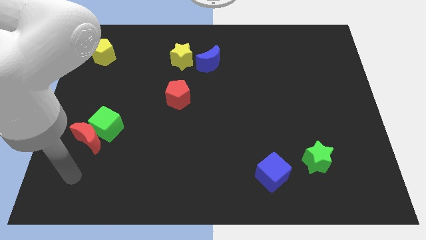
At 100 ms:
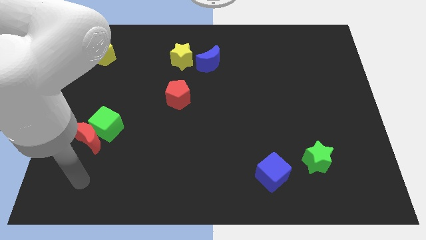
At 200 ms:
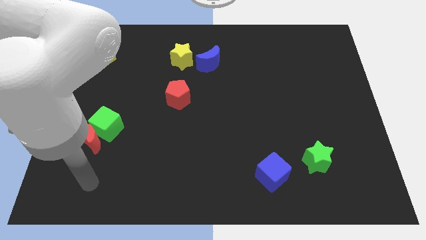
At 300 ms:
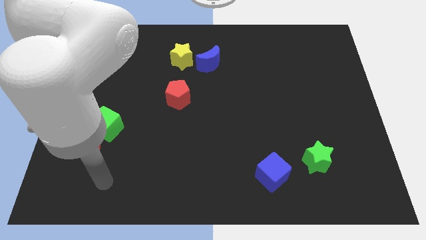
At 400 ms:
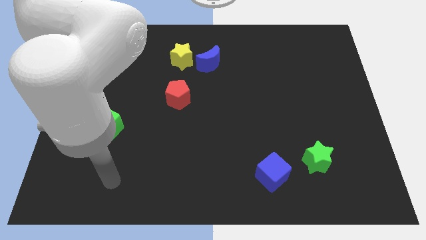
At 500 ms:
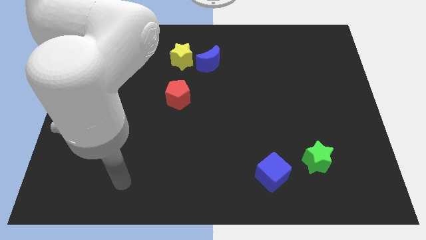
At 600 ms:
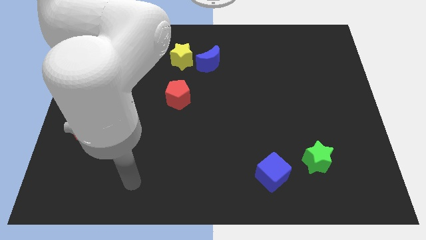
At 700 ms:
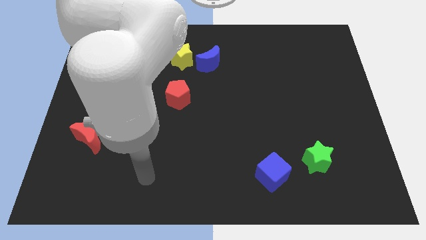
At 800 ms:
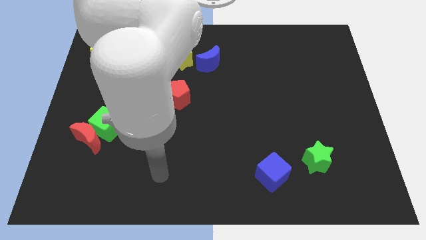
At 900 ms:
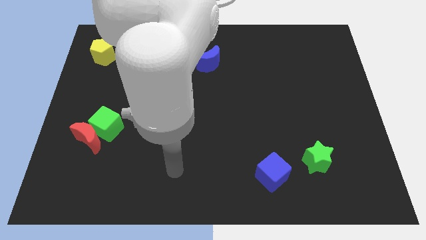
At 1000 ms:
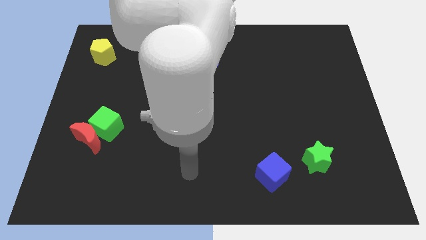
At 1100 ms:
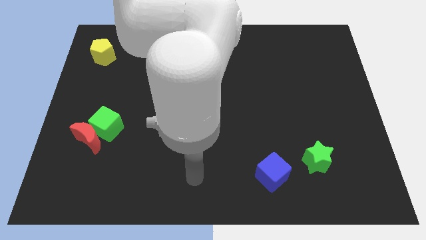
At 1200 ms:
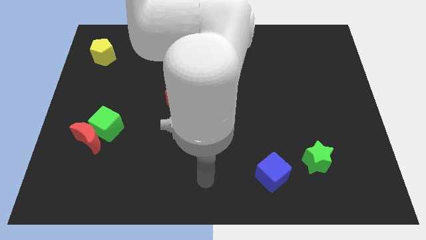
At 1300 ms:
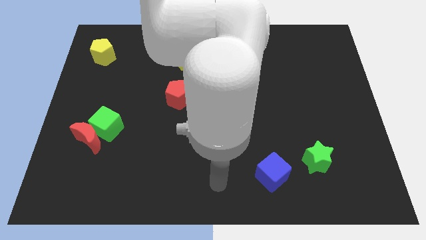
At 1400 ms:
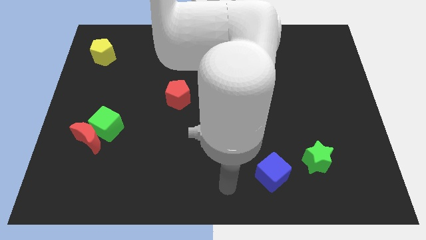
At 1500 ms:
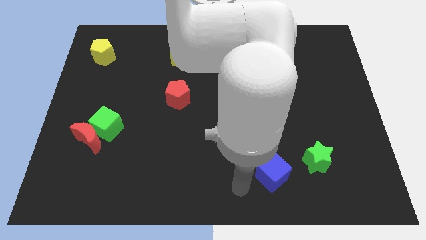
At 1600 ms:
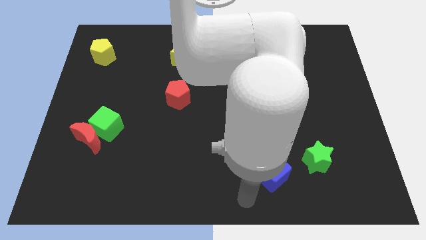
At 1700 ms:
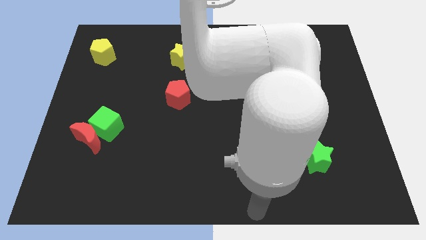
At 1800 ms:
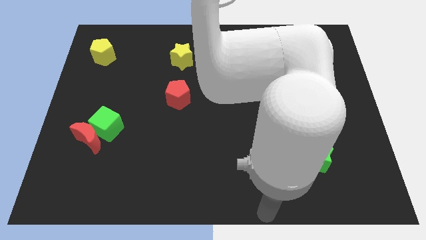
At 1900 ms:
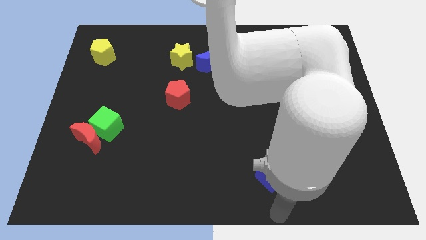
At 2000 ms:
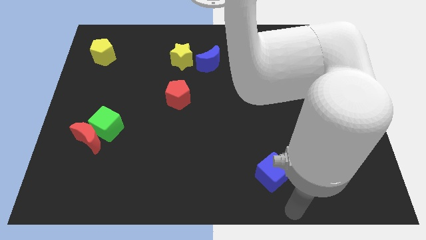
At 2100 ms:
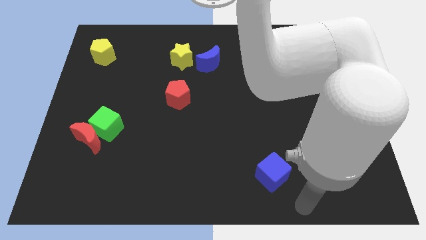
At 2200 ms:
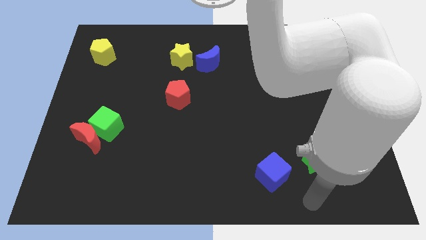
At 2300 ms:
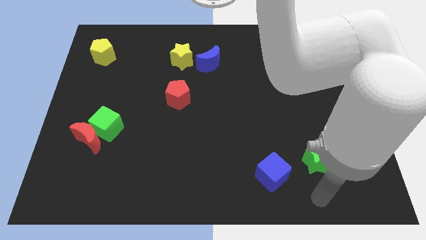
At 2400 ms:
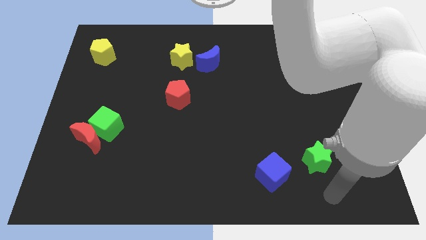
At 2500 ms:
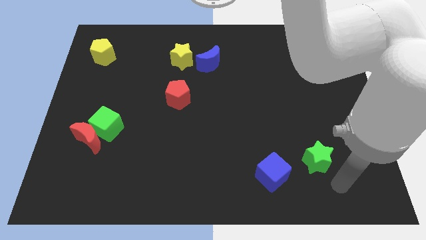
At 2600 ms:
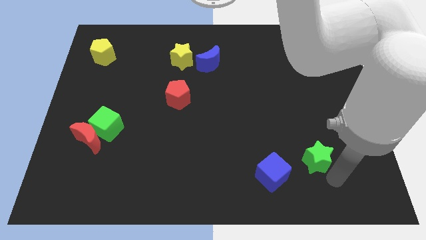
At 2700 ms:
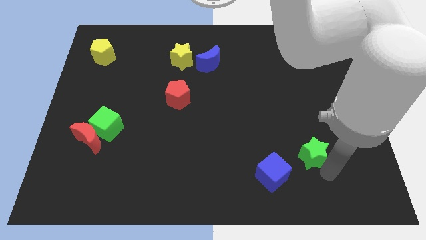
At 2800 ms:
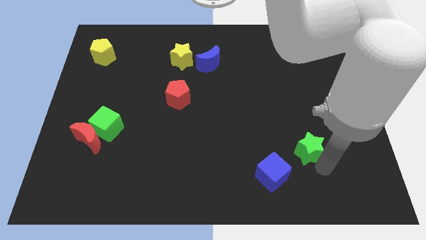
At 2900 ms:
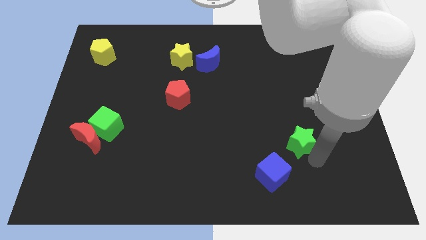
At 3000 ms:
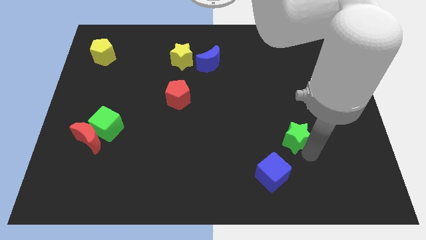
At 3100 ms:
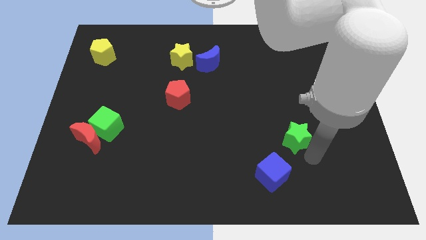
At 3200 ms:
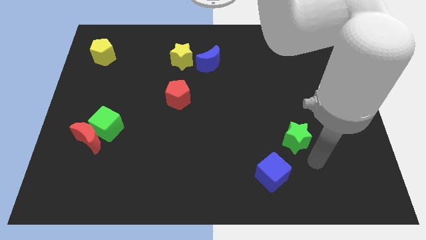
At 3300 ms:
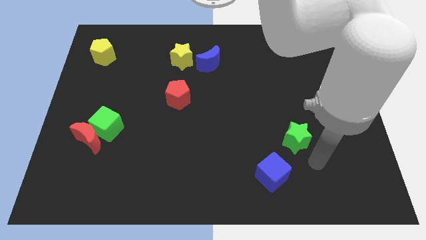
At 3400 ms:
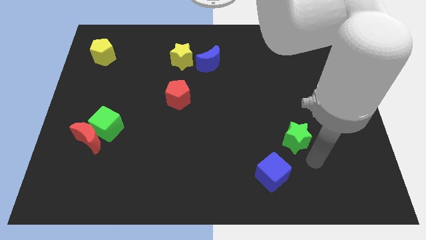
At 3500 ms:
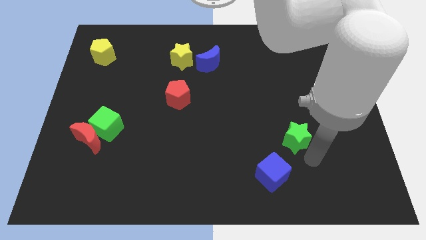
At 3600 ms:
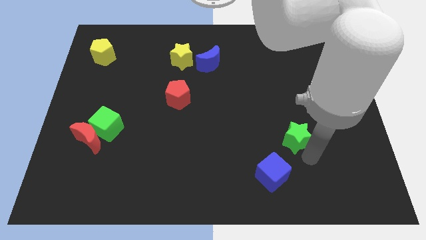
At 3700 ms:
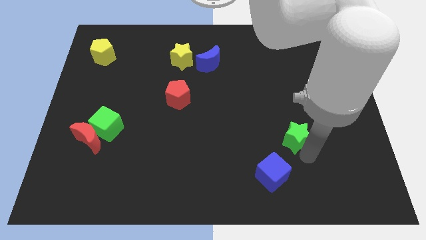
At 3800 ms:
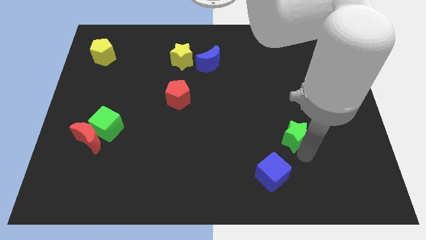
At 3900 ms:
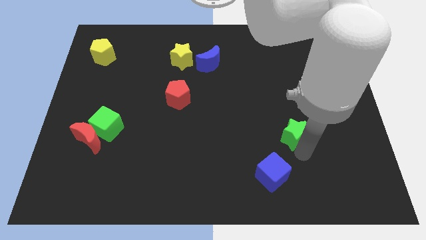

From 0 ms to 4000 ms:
slide the green star somewhat upwards and then to the left

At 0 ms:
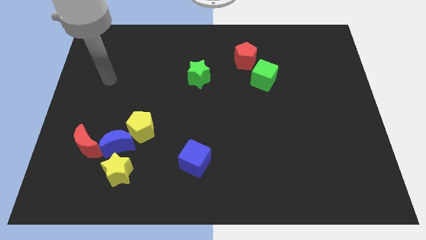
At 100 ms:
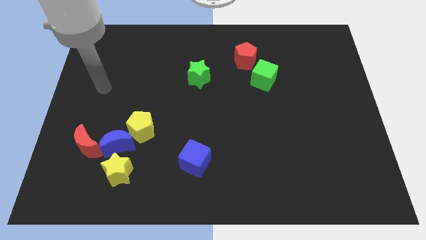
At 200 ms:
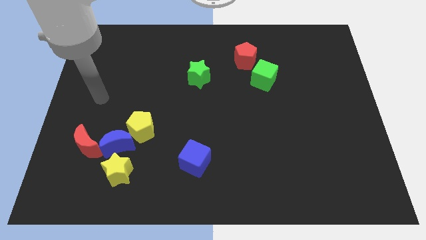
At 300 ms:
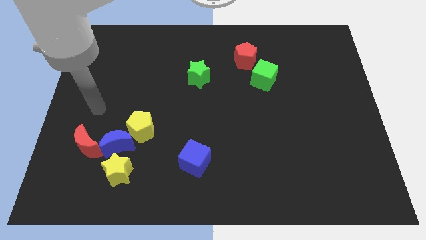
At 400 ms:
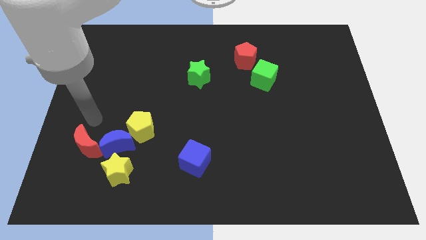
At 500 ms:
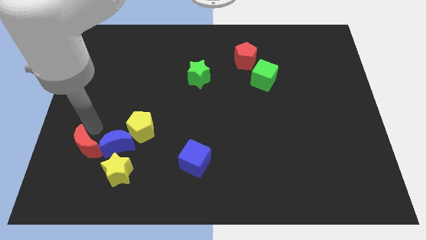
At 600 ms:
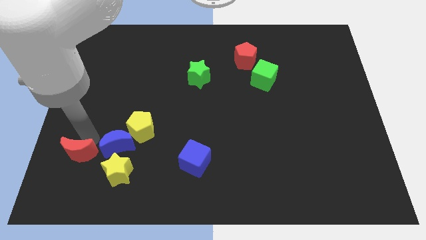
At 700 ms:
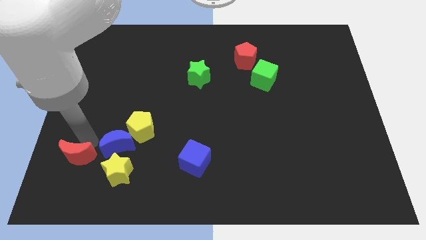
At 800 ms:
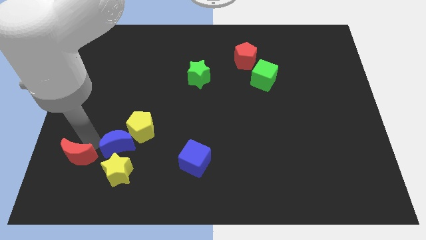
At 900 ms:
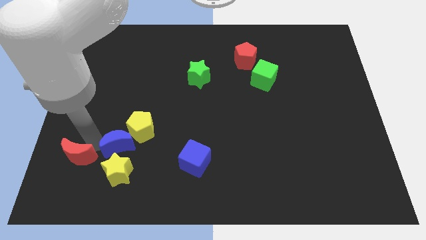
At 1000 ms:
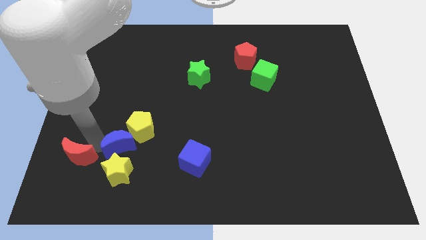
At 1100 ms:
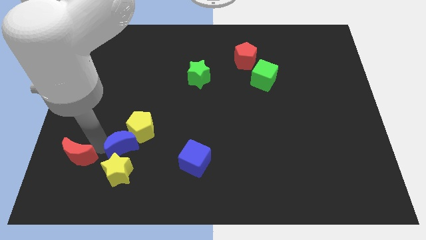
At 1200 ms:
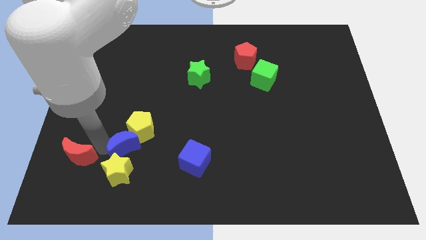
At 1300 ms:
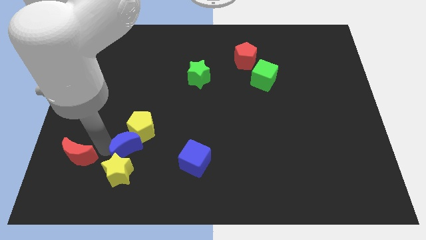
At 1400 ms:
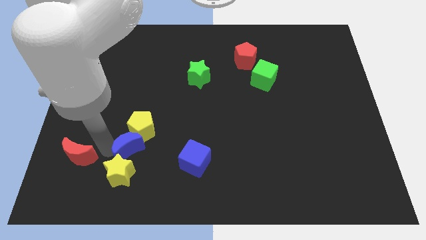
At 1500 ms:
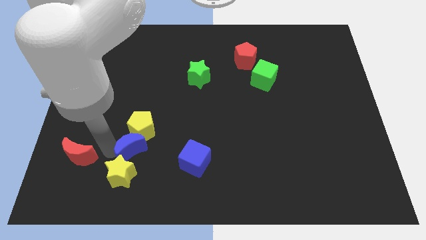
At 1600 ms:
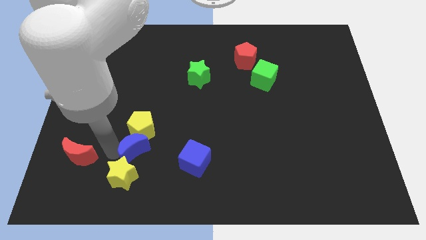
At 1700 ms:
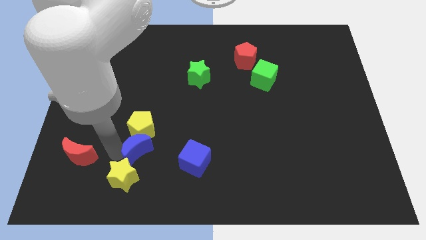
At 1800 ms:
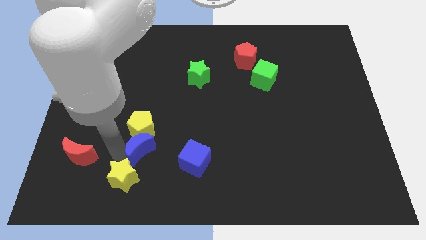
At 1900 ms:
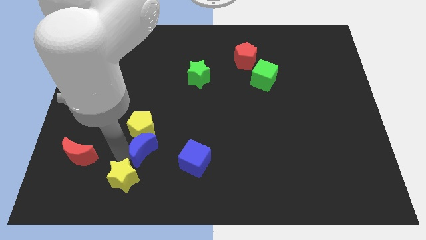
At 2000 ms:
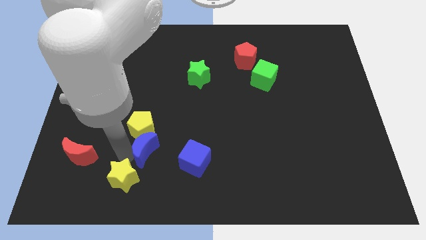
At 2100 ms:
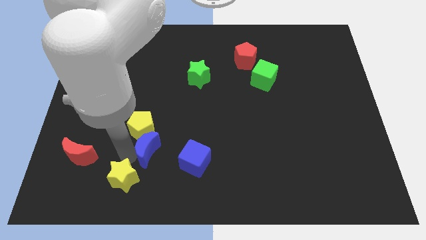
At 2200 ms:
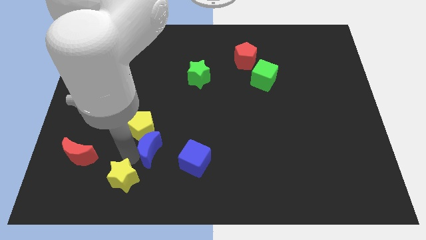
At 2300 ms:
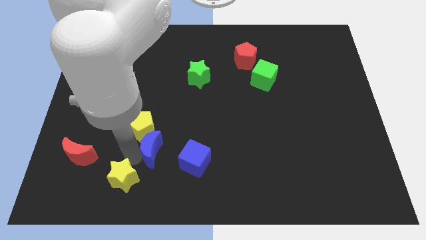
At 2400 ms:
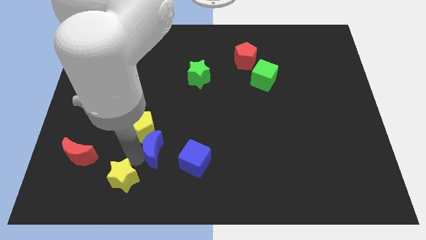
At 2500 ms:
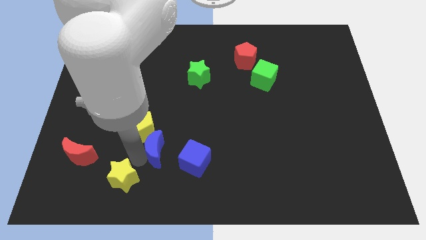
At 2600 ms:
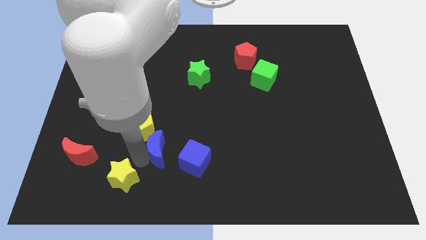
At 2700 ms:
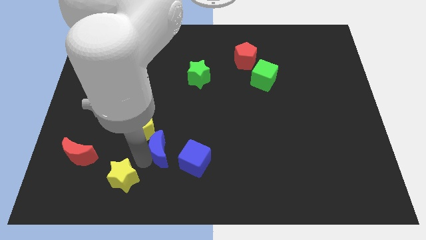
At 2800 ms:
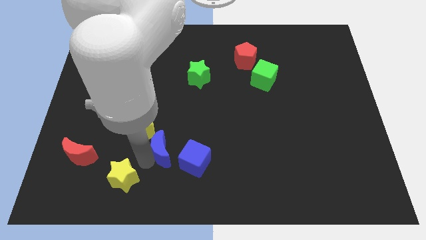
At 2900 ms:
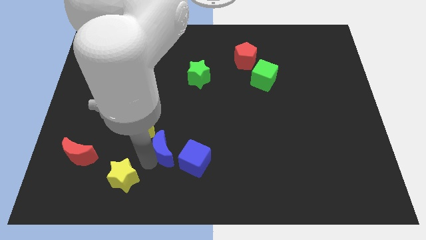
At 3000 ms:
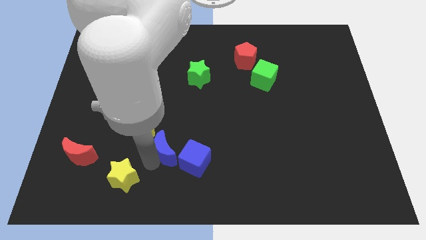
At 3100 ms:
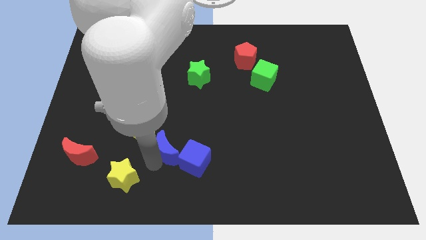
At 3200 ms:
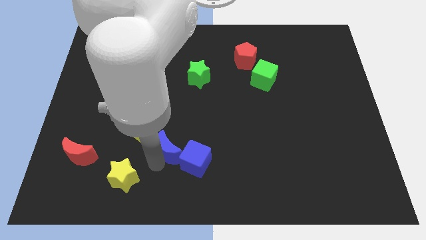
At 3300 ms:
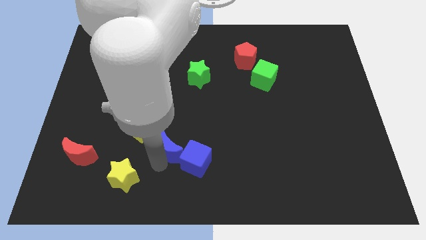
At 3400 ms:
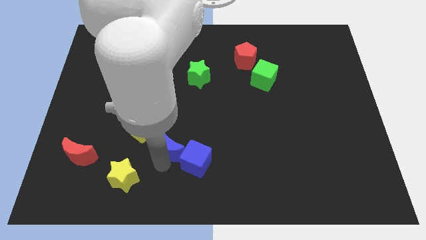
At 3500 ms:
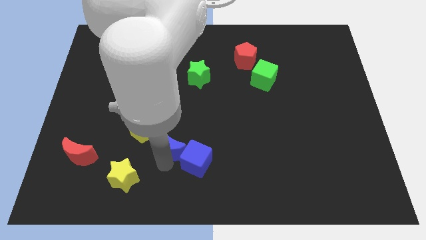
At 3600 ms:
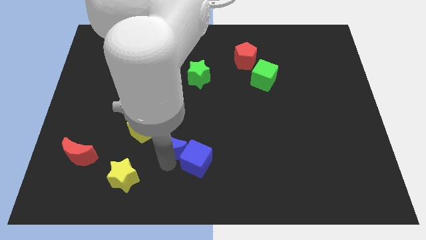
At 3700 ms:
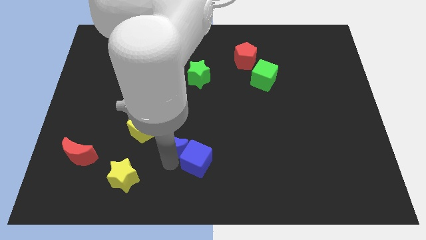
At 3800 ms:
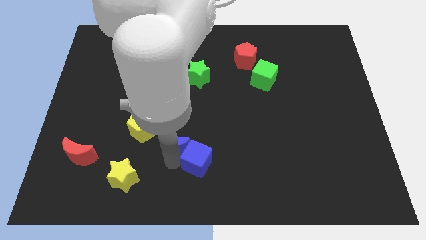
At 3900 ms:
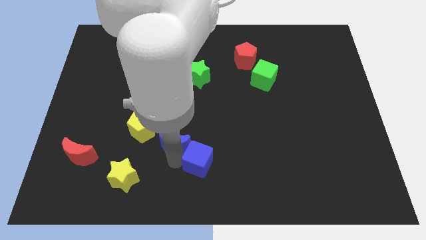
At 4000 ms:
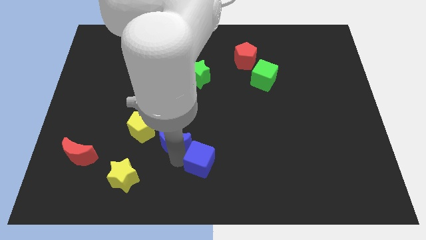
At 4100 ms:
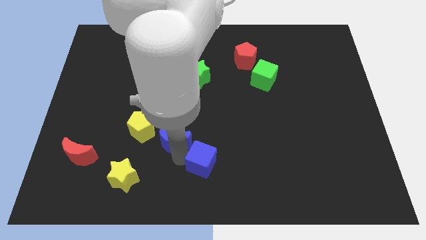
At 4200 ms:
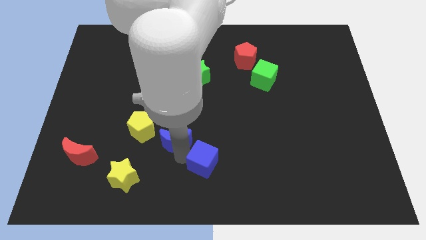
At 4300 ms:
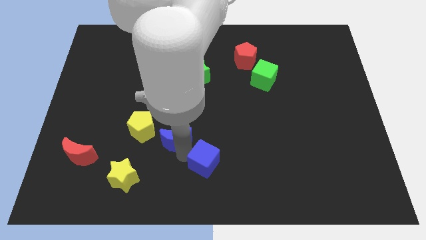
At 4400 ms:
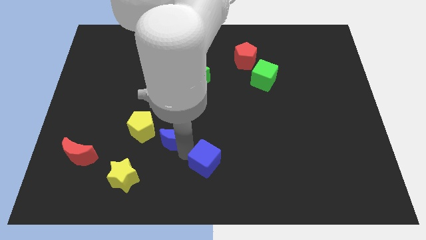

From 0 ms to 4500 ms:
push the blue moon diagonally upwards and right a little
